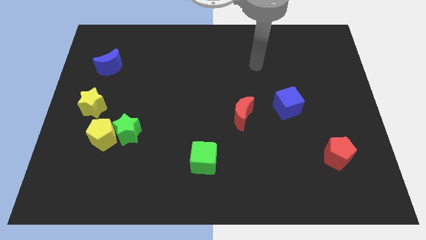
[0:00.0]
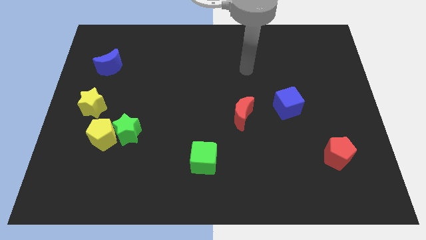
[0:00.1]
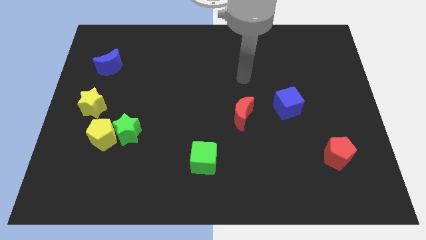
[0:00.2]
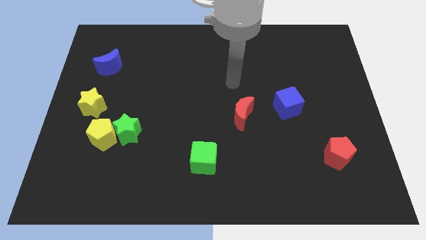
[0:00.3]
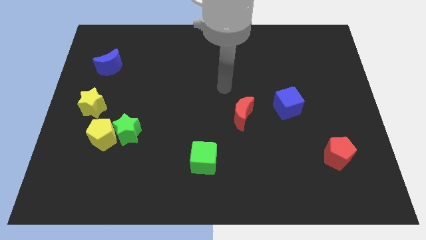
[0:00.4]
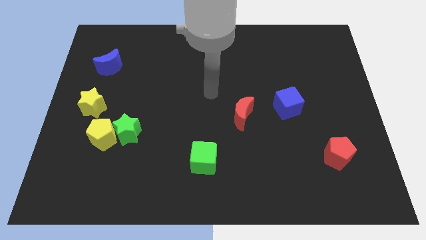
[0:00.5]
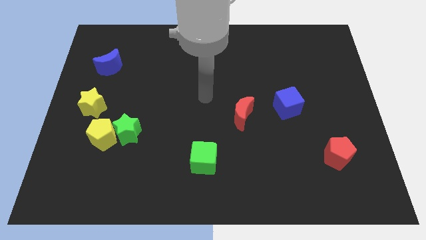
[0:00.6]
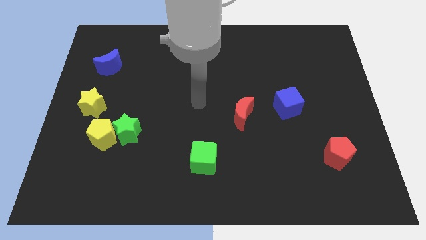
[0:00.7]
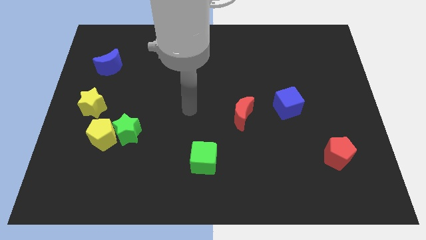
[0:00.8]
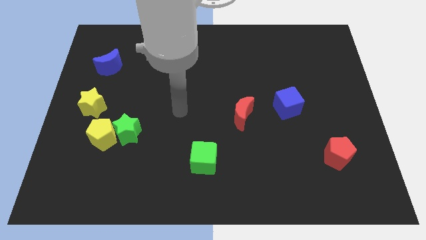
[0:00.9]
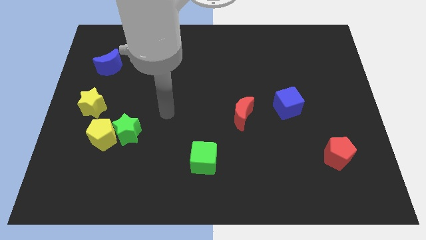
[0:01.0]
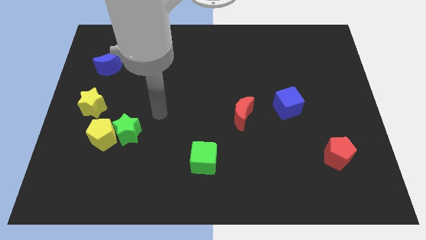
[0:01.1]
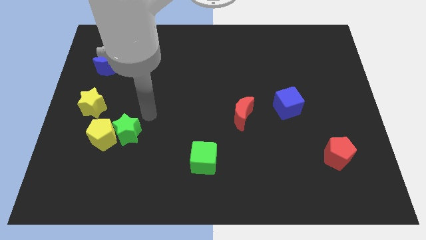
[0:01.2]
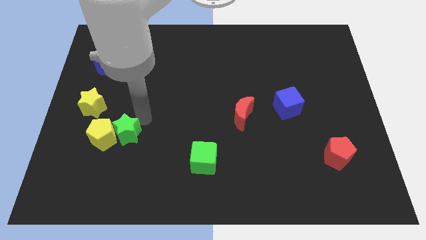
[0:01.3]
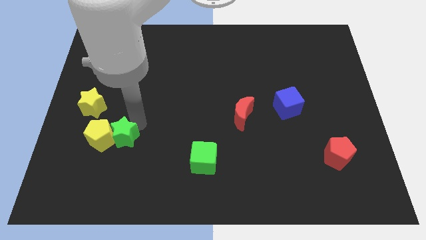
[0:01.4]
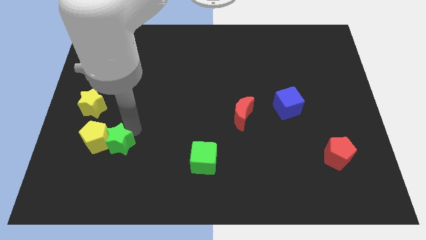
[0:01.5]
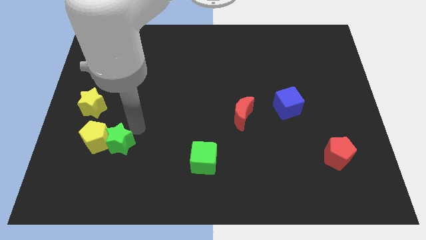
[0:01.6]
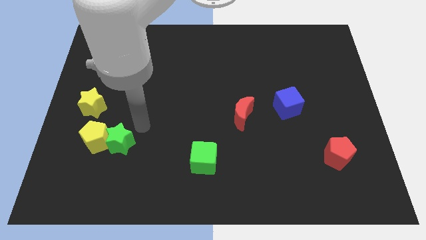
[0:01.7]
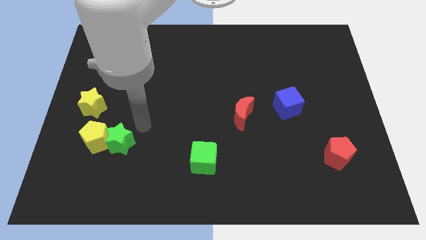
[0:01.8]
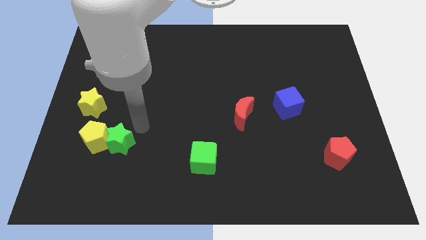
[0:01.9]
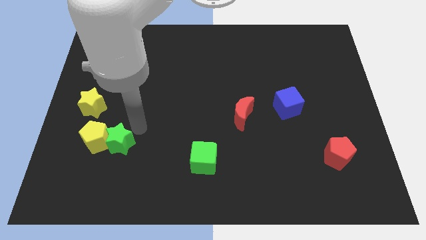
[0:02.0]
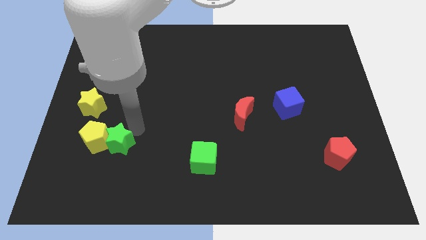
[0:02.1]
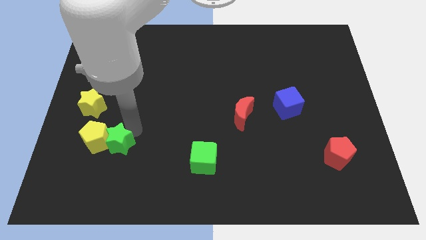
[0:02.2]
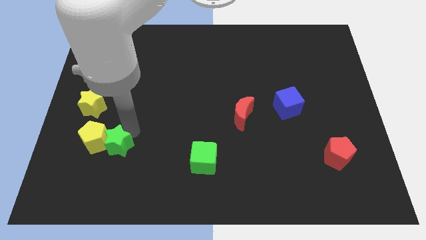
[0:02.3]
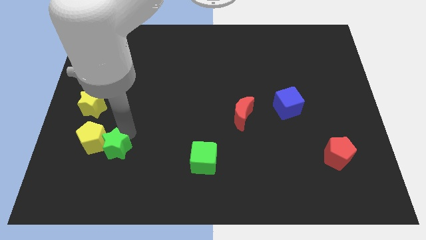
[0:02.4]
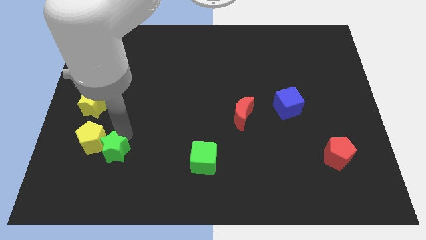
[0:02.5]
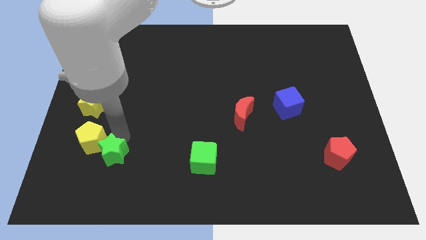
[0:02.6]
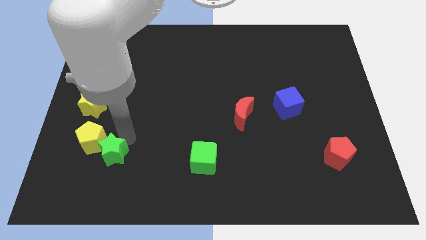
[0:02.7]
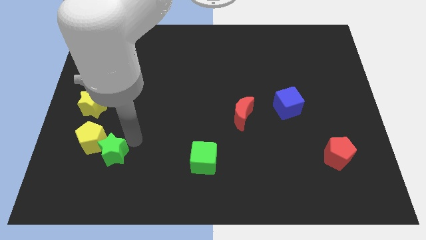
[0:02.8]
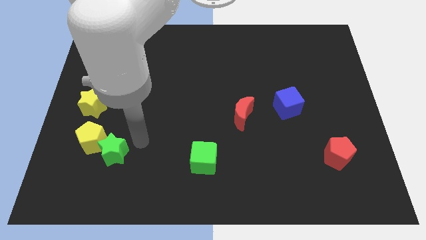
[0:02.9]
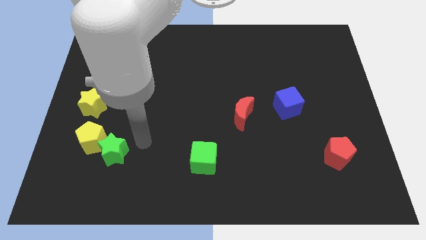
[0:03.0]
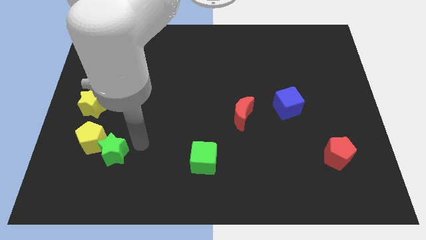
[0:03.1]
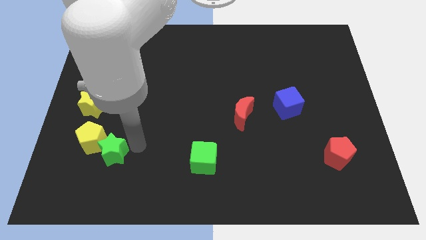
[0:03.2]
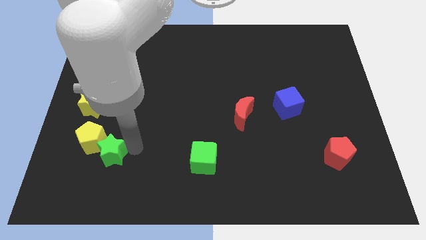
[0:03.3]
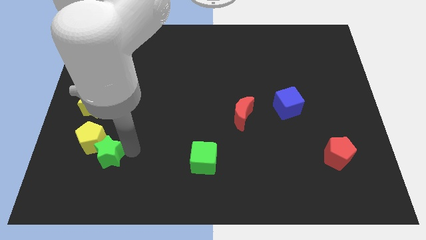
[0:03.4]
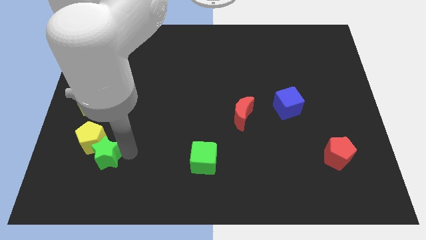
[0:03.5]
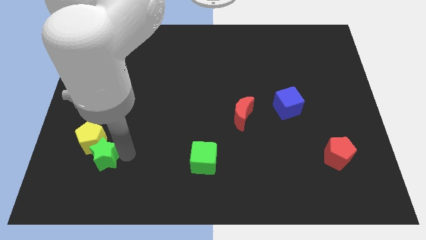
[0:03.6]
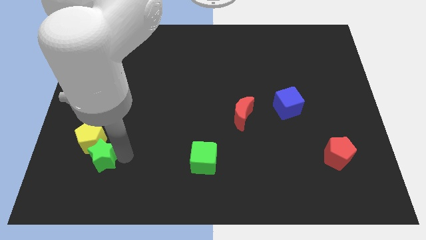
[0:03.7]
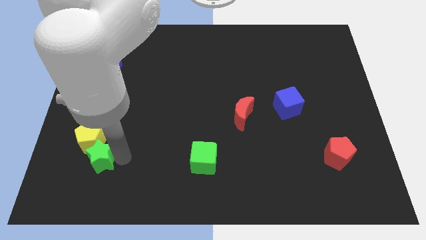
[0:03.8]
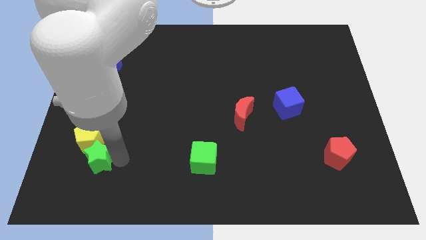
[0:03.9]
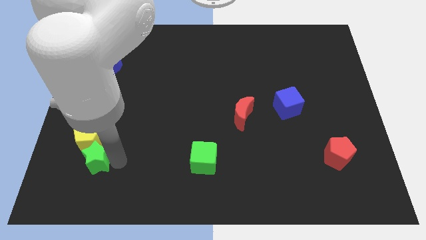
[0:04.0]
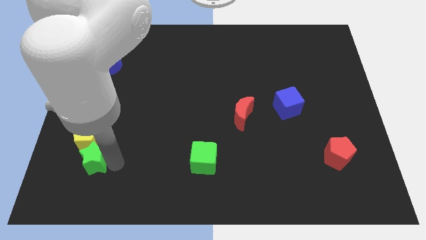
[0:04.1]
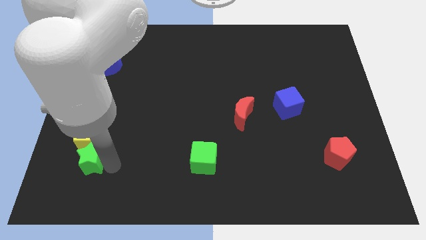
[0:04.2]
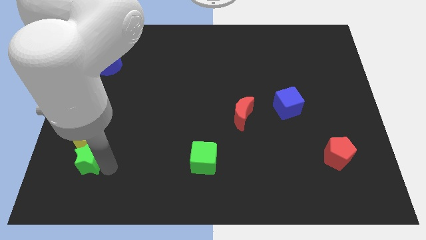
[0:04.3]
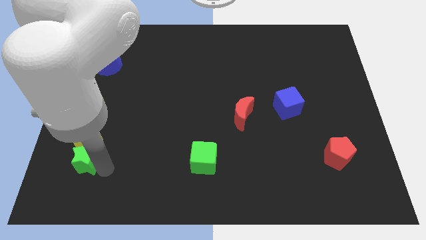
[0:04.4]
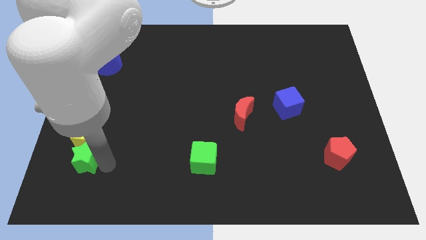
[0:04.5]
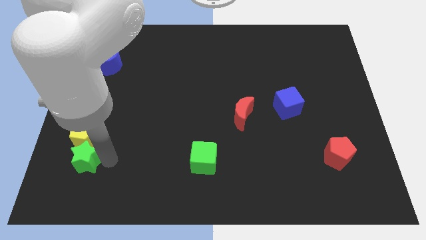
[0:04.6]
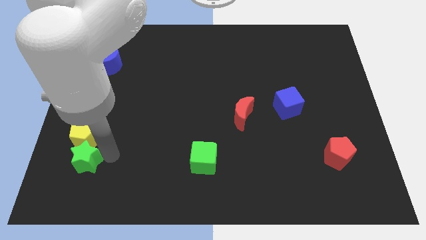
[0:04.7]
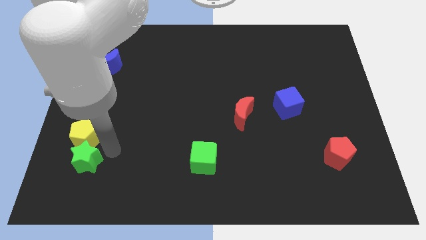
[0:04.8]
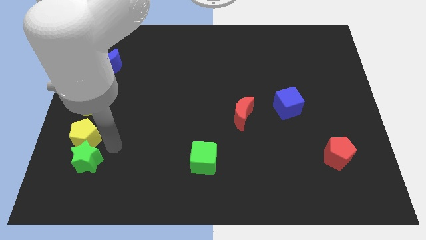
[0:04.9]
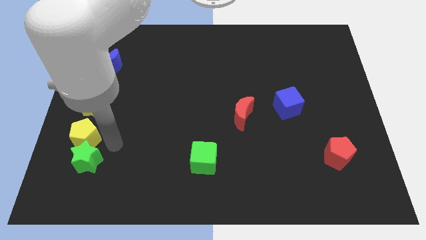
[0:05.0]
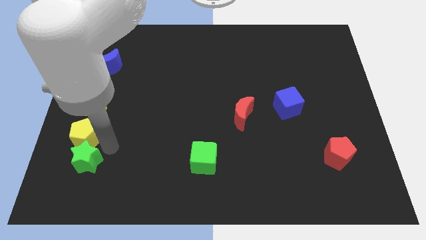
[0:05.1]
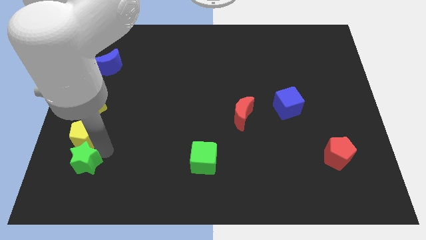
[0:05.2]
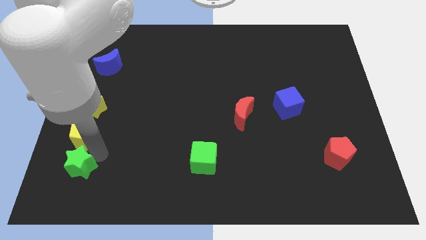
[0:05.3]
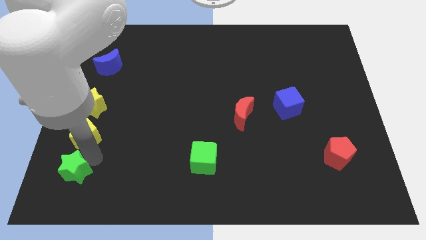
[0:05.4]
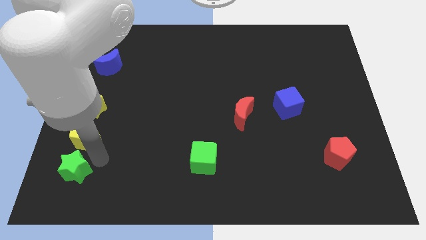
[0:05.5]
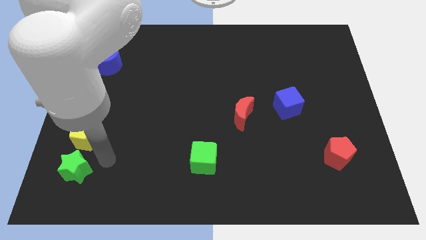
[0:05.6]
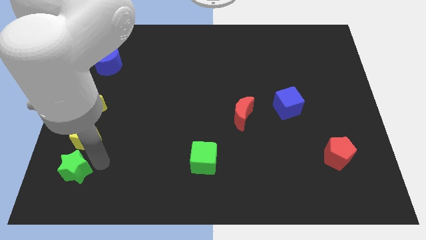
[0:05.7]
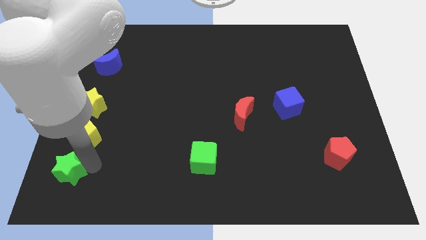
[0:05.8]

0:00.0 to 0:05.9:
put the green star to the bottom left corner
